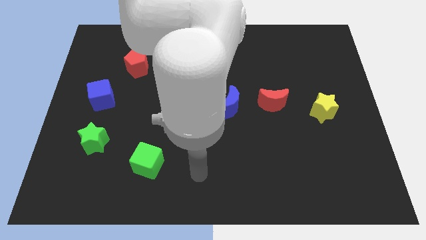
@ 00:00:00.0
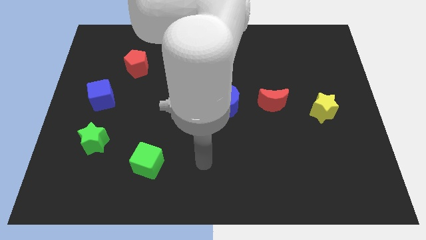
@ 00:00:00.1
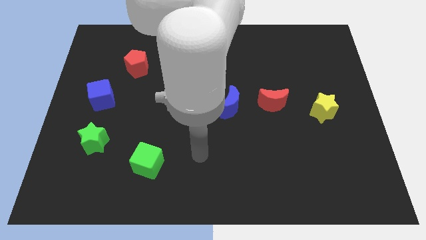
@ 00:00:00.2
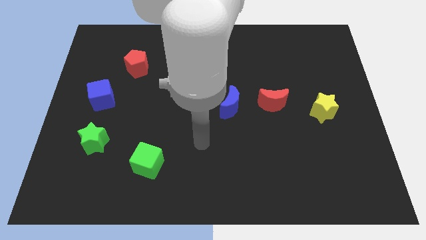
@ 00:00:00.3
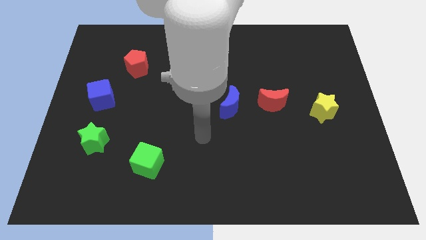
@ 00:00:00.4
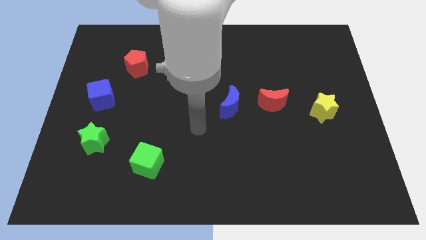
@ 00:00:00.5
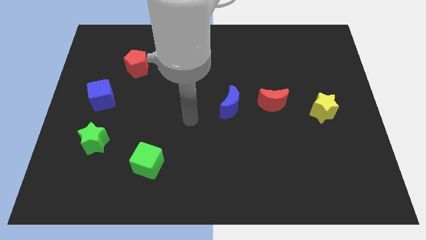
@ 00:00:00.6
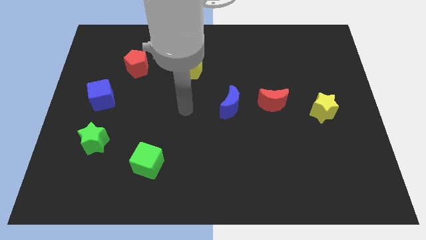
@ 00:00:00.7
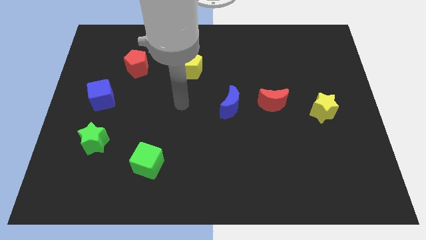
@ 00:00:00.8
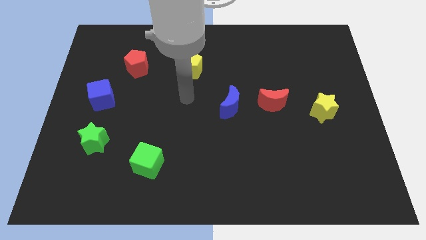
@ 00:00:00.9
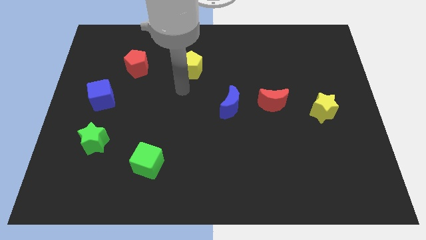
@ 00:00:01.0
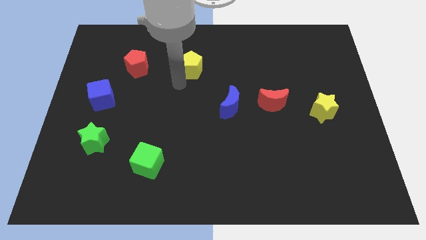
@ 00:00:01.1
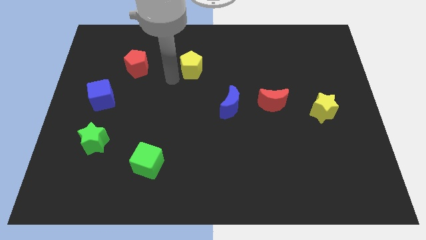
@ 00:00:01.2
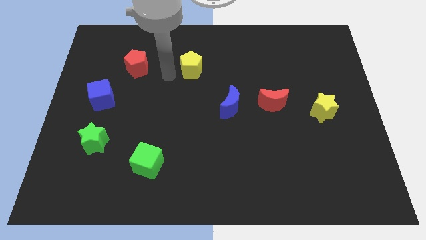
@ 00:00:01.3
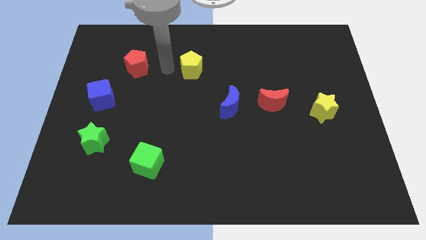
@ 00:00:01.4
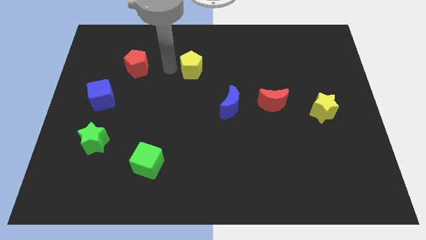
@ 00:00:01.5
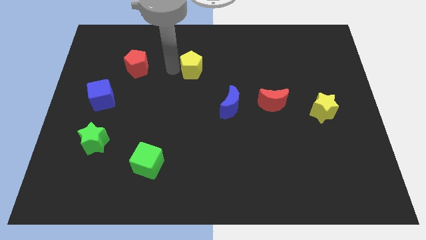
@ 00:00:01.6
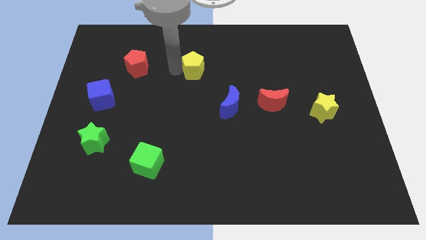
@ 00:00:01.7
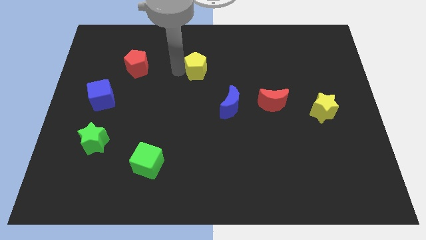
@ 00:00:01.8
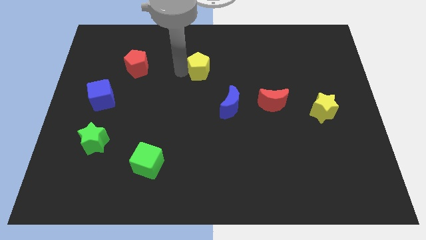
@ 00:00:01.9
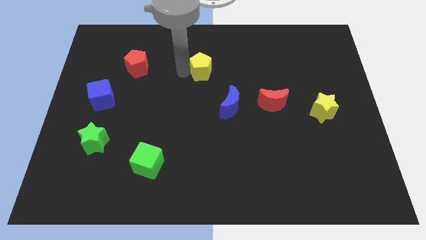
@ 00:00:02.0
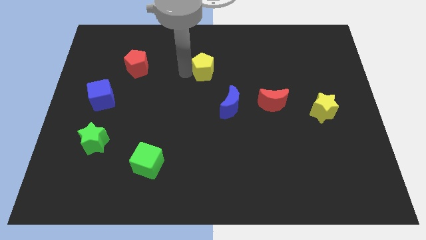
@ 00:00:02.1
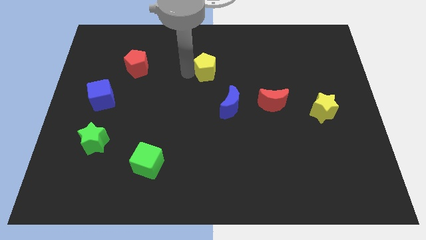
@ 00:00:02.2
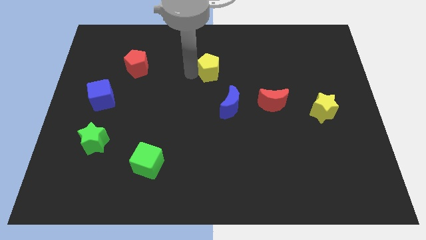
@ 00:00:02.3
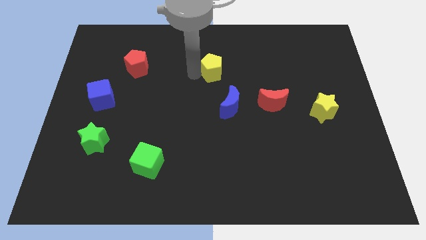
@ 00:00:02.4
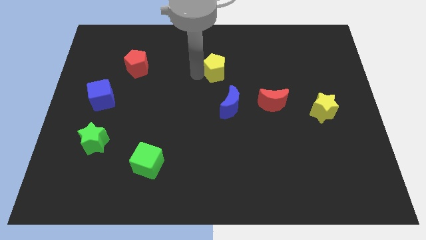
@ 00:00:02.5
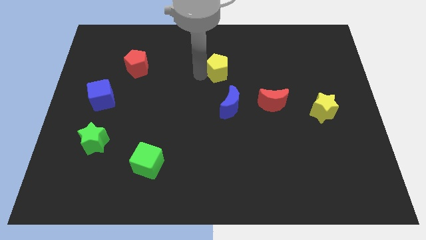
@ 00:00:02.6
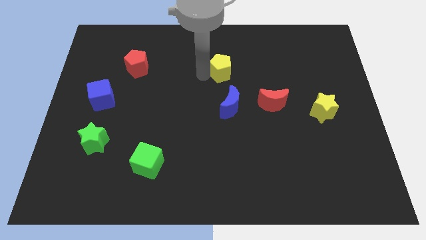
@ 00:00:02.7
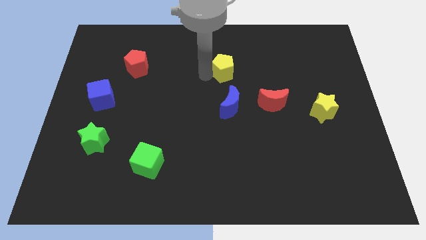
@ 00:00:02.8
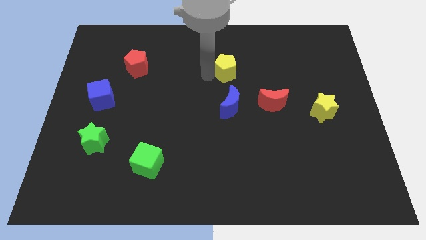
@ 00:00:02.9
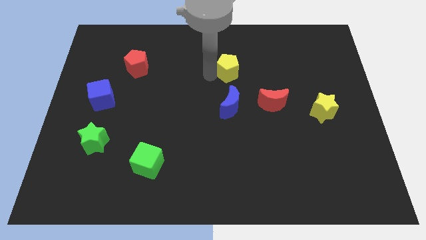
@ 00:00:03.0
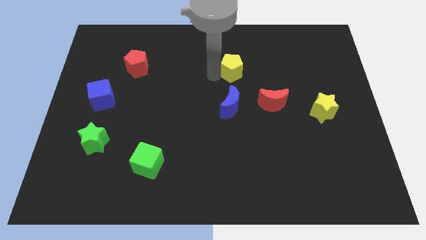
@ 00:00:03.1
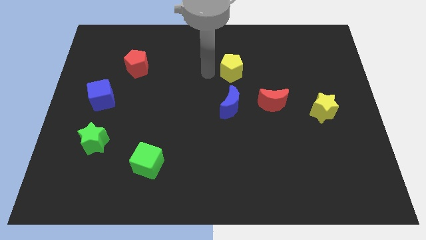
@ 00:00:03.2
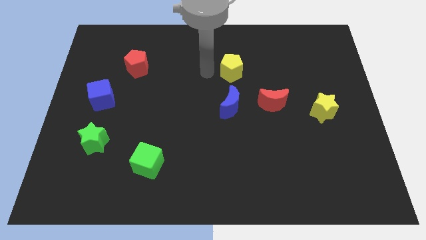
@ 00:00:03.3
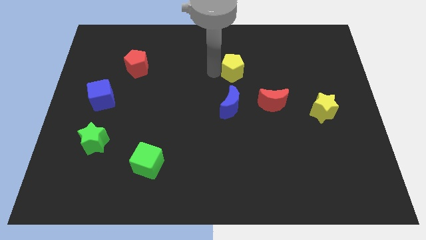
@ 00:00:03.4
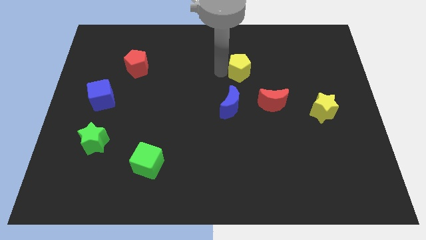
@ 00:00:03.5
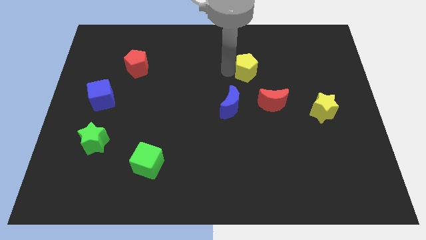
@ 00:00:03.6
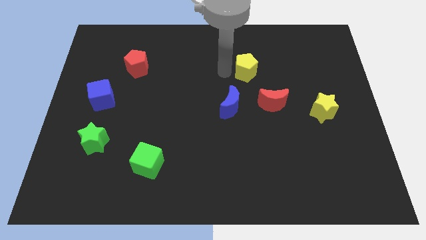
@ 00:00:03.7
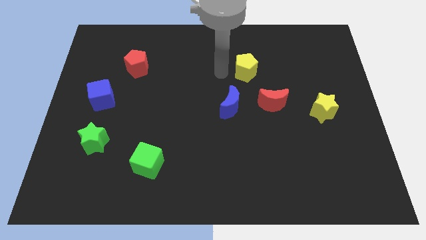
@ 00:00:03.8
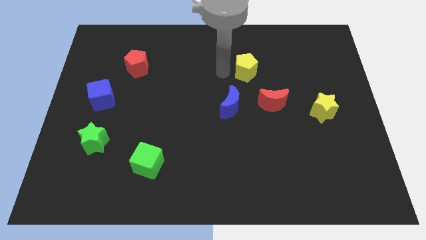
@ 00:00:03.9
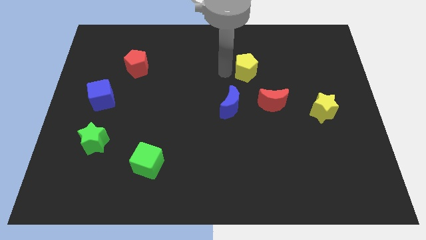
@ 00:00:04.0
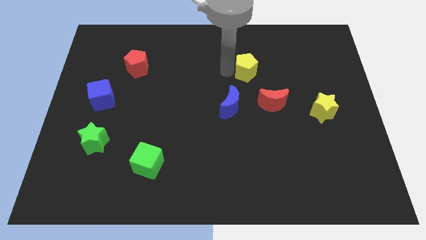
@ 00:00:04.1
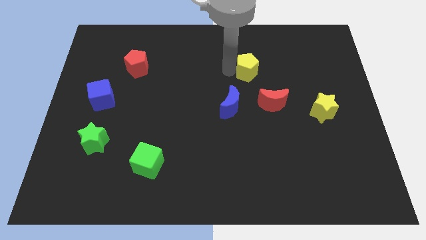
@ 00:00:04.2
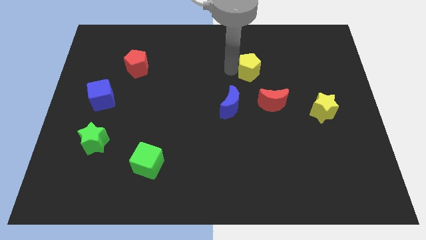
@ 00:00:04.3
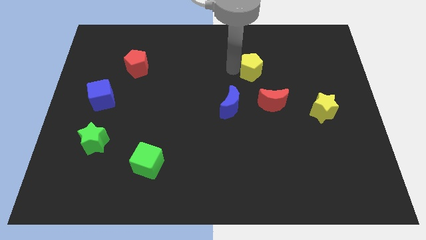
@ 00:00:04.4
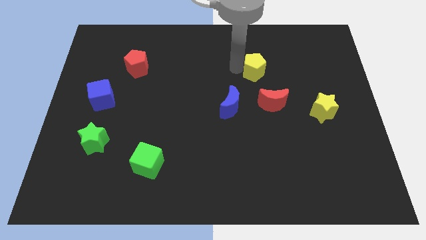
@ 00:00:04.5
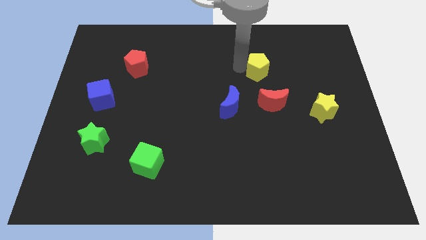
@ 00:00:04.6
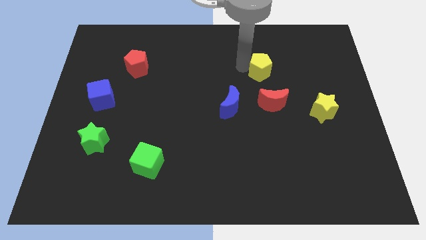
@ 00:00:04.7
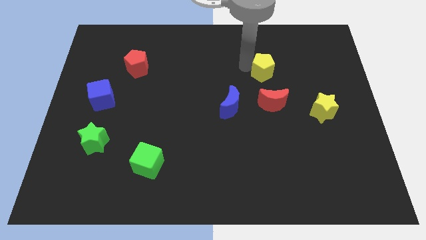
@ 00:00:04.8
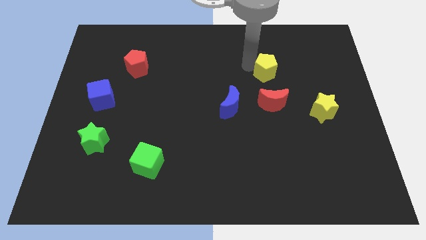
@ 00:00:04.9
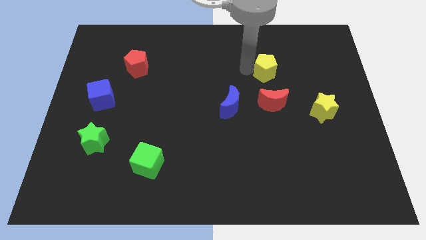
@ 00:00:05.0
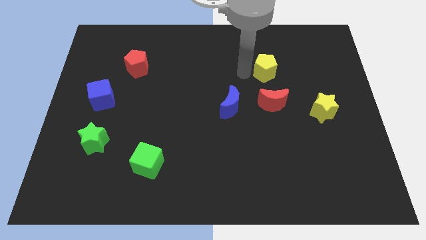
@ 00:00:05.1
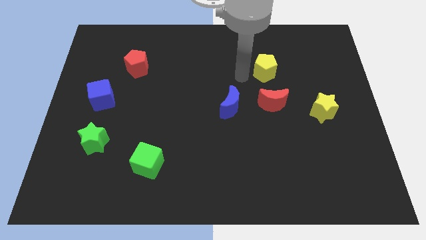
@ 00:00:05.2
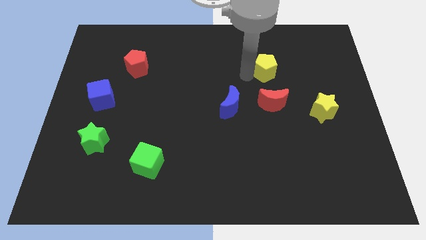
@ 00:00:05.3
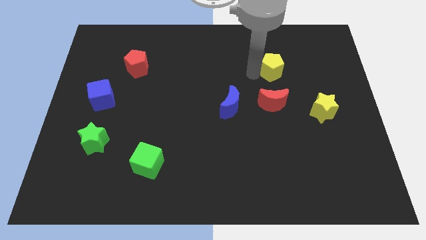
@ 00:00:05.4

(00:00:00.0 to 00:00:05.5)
move the yellow pentagon right

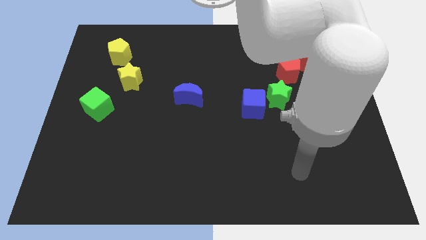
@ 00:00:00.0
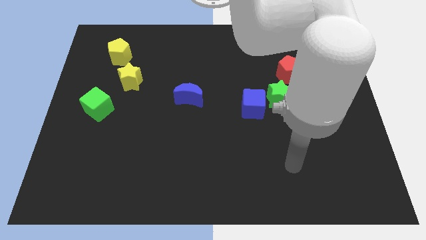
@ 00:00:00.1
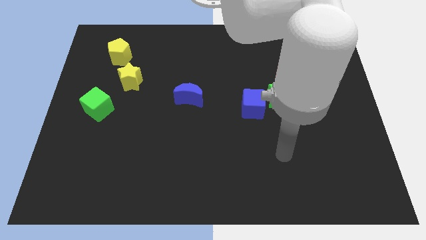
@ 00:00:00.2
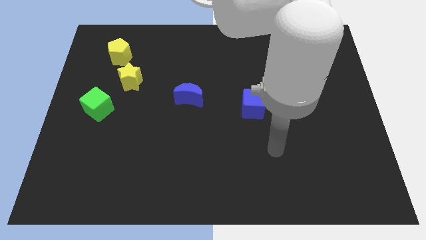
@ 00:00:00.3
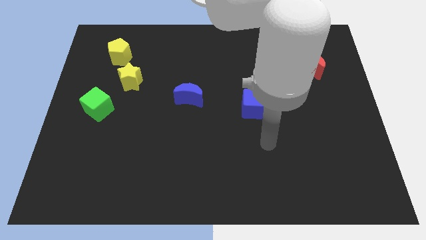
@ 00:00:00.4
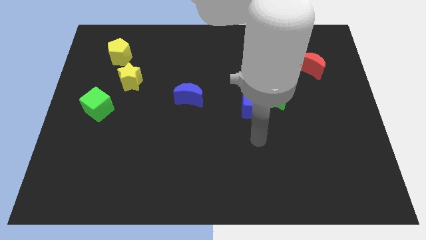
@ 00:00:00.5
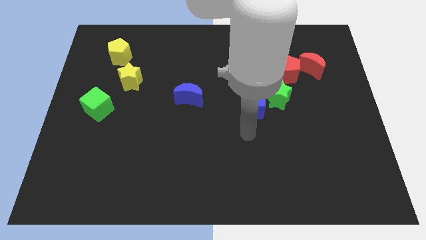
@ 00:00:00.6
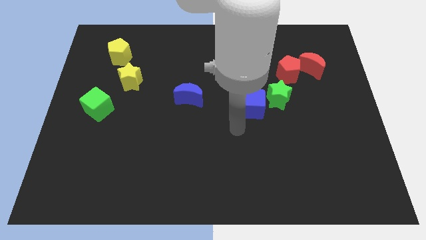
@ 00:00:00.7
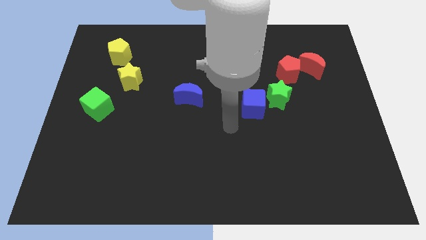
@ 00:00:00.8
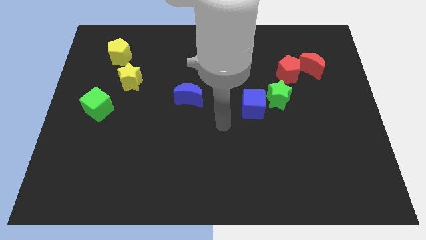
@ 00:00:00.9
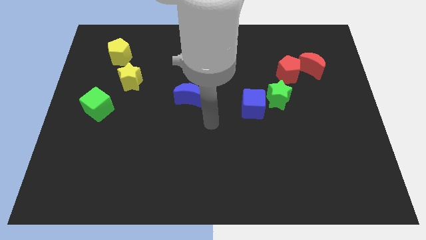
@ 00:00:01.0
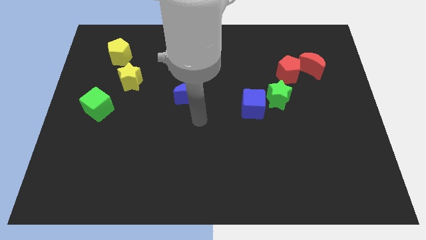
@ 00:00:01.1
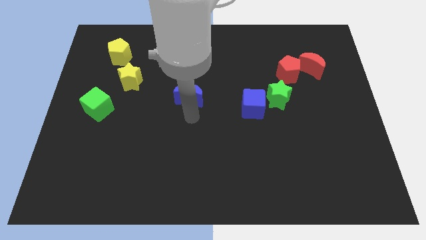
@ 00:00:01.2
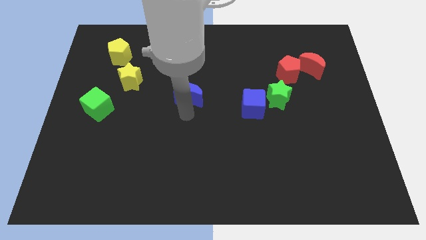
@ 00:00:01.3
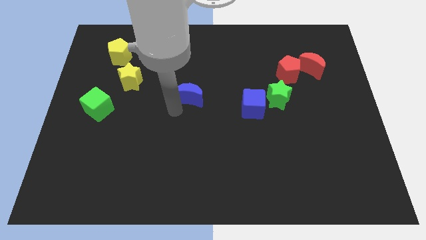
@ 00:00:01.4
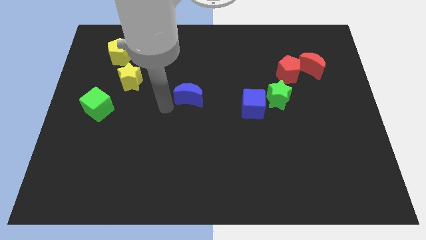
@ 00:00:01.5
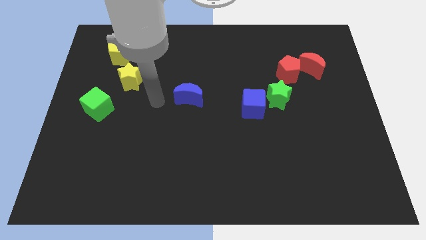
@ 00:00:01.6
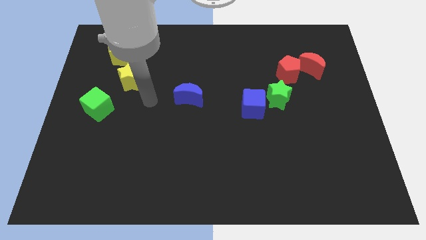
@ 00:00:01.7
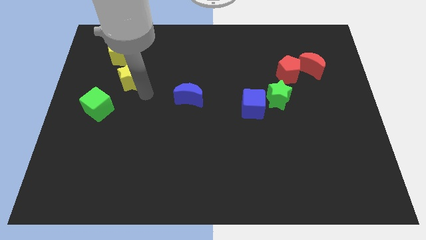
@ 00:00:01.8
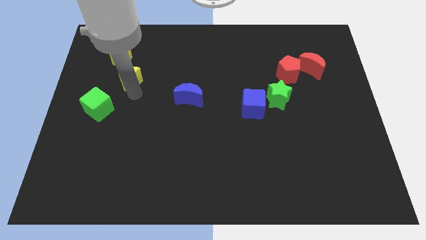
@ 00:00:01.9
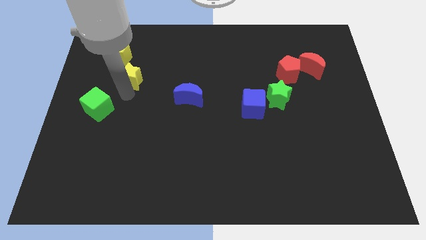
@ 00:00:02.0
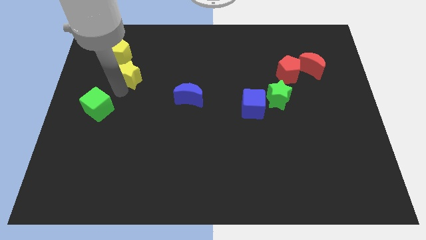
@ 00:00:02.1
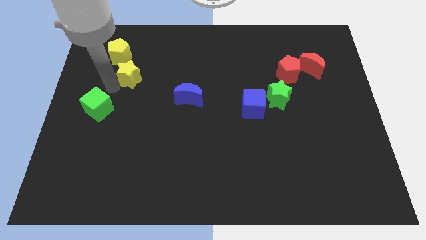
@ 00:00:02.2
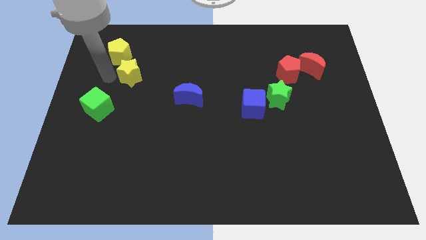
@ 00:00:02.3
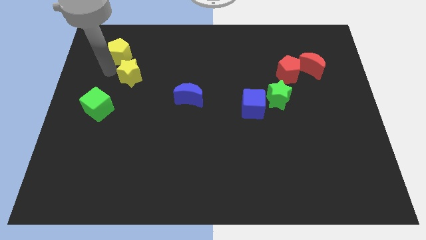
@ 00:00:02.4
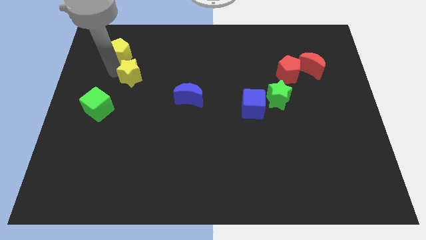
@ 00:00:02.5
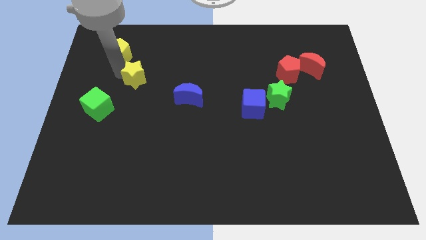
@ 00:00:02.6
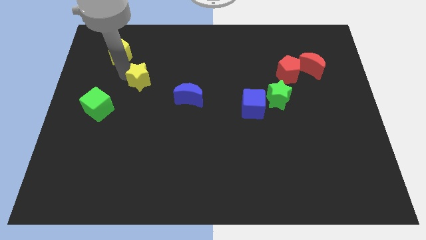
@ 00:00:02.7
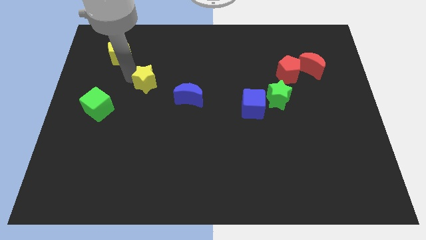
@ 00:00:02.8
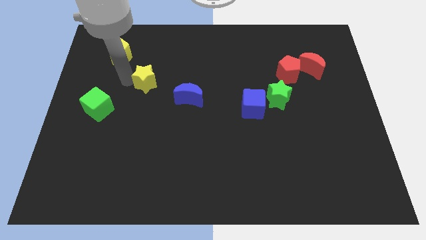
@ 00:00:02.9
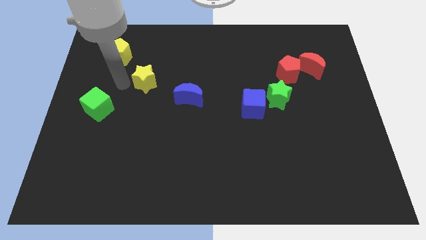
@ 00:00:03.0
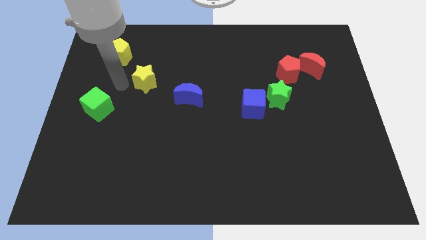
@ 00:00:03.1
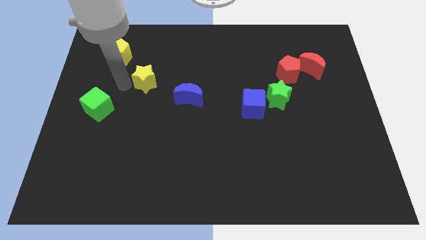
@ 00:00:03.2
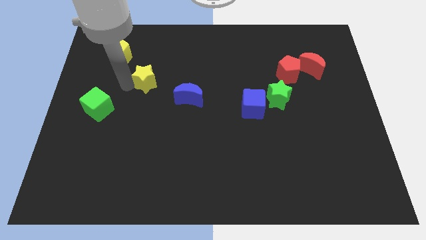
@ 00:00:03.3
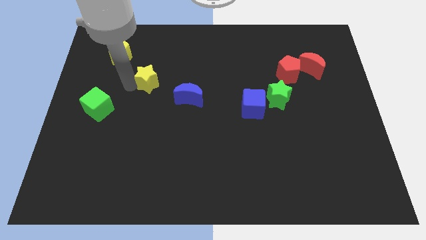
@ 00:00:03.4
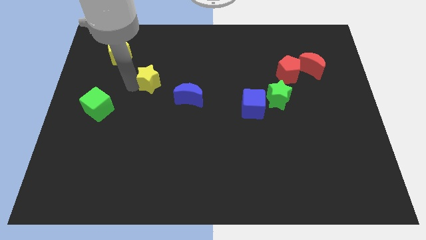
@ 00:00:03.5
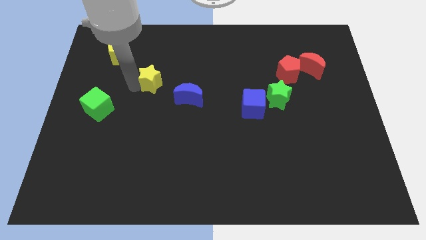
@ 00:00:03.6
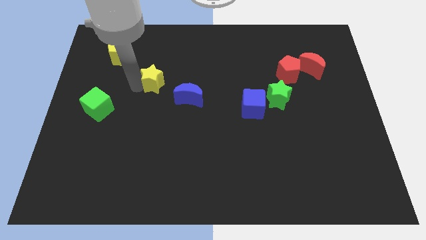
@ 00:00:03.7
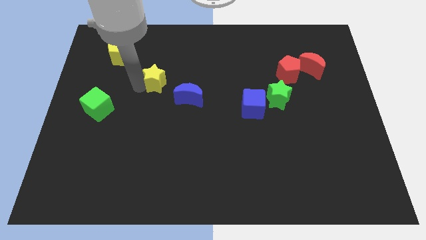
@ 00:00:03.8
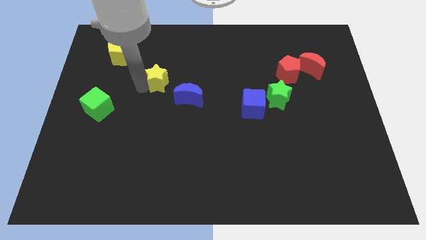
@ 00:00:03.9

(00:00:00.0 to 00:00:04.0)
slightly push the yellow star right
